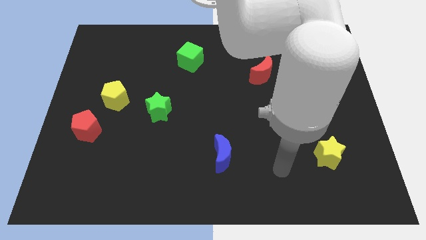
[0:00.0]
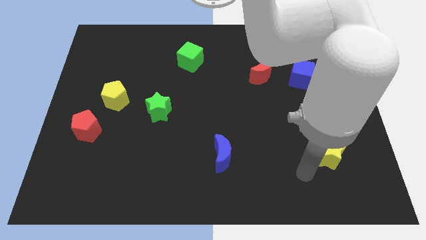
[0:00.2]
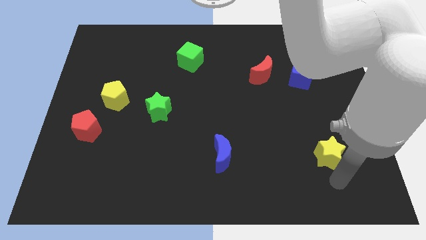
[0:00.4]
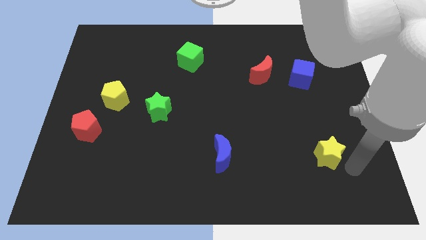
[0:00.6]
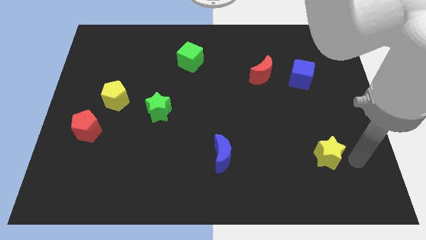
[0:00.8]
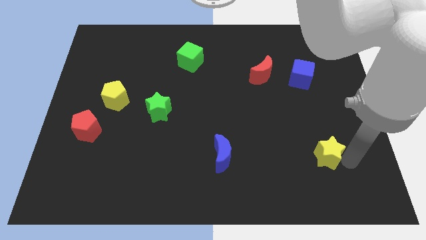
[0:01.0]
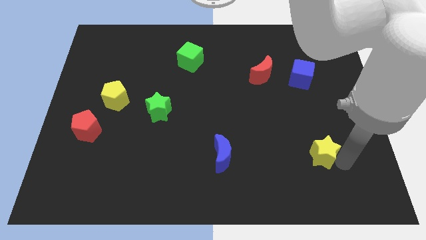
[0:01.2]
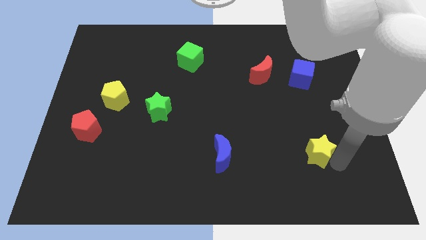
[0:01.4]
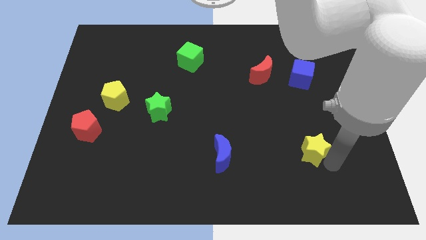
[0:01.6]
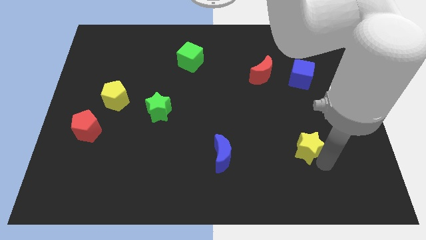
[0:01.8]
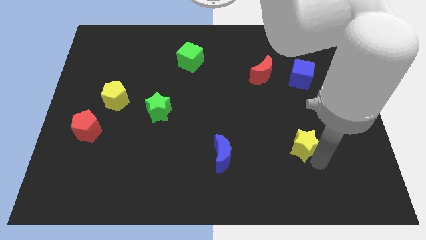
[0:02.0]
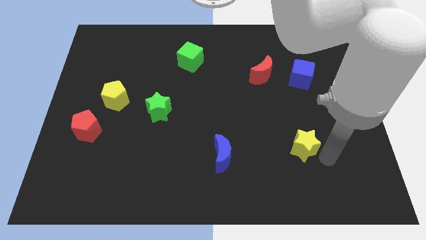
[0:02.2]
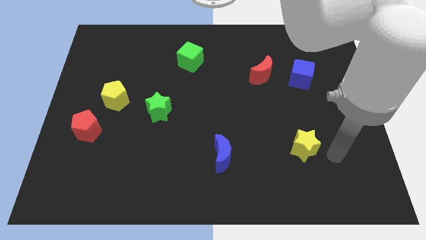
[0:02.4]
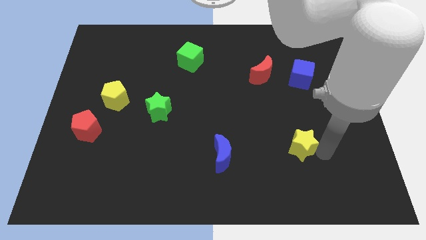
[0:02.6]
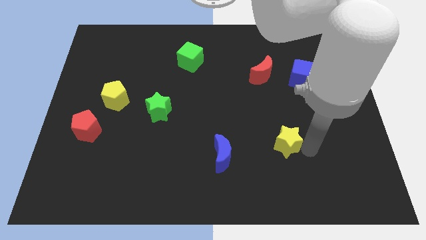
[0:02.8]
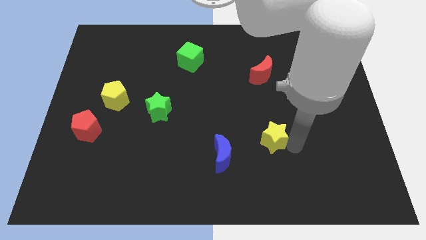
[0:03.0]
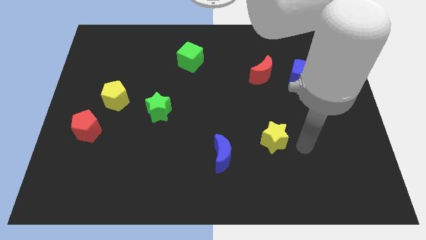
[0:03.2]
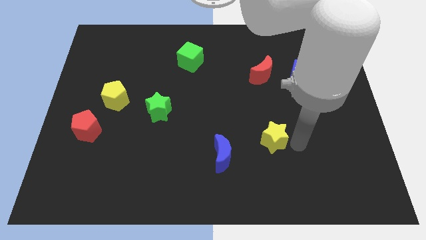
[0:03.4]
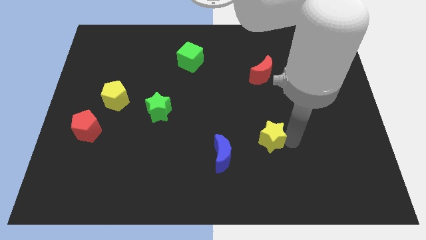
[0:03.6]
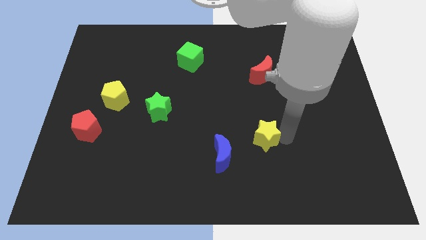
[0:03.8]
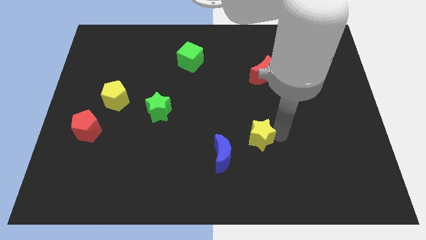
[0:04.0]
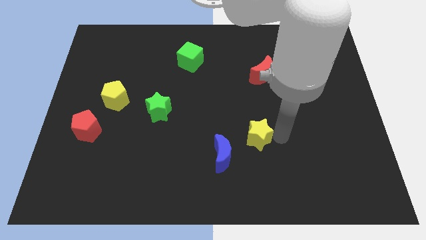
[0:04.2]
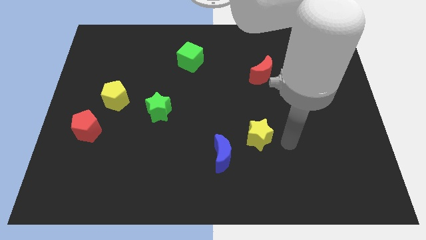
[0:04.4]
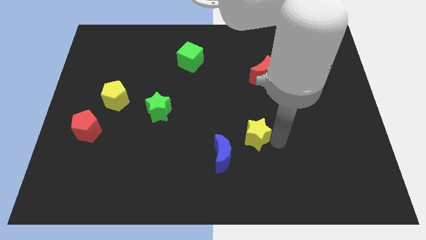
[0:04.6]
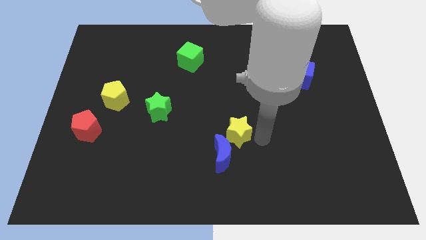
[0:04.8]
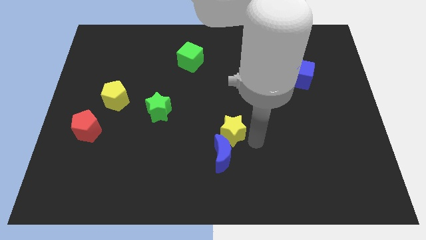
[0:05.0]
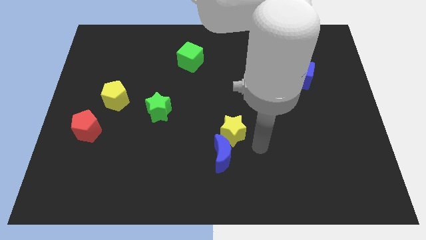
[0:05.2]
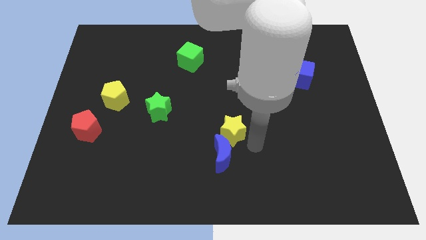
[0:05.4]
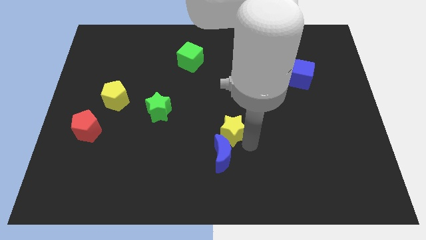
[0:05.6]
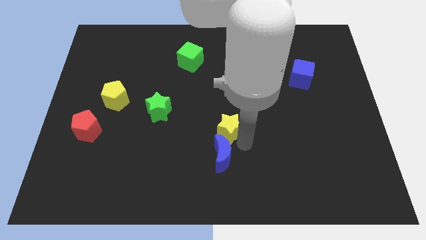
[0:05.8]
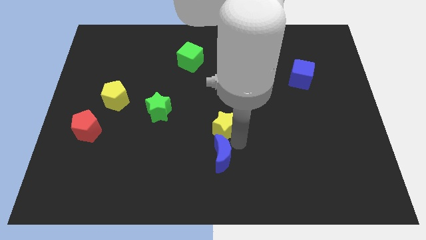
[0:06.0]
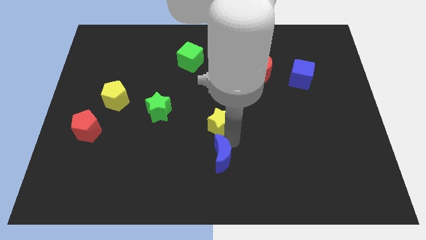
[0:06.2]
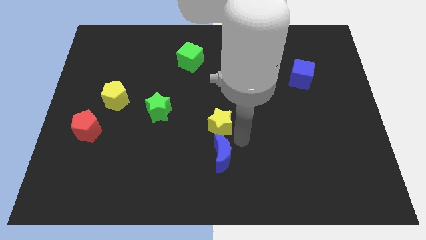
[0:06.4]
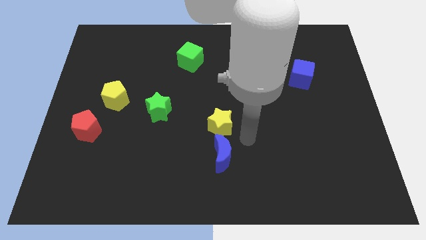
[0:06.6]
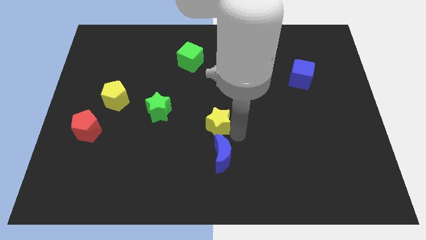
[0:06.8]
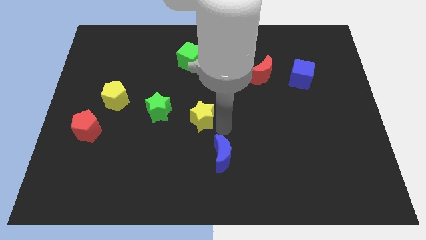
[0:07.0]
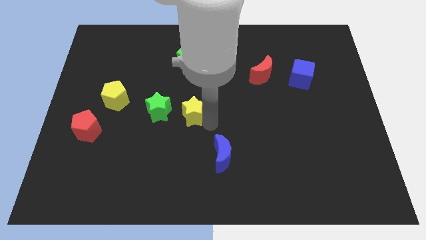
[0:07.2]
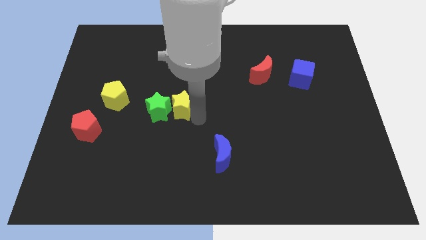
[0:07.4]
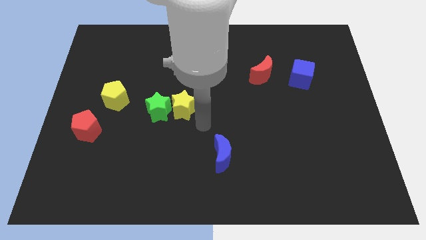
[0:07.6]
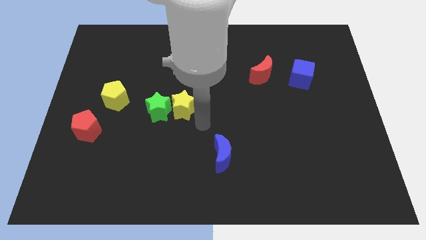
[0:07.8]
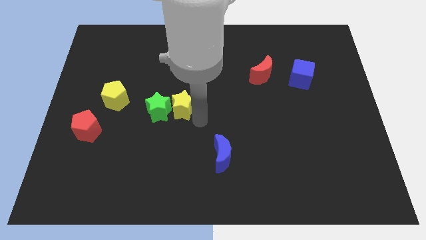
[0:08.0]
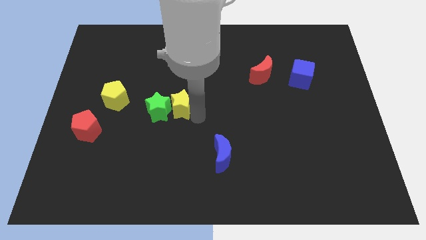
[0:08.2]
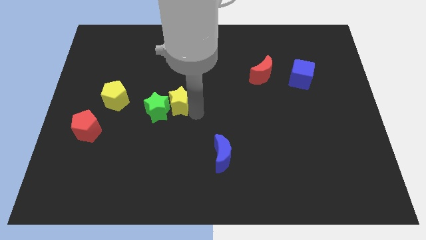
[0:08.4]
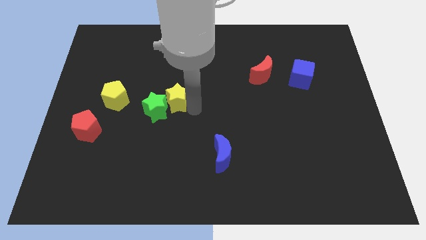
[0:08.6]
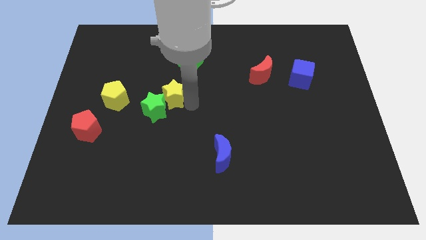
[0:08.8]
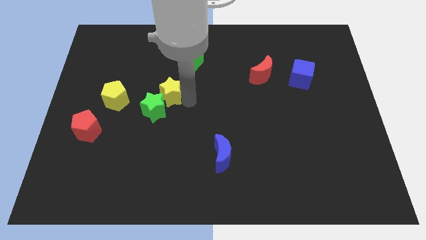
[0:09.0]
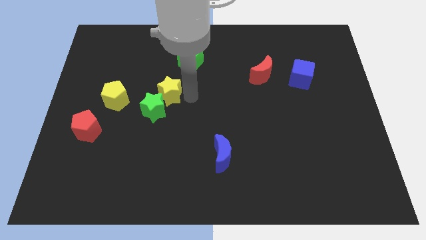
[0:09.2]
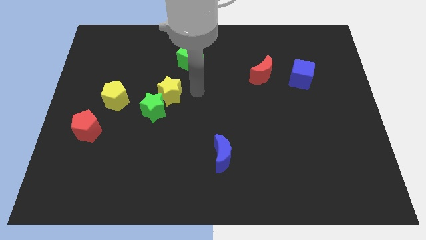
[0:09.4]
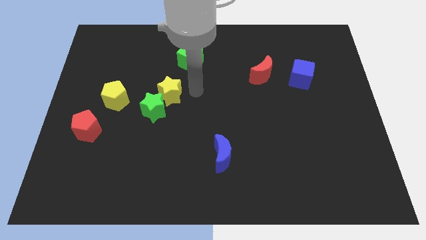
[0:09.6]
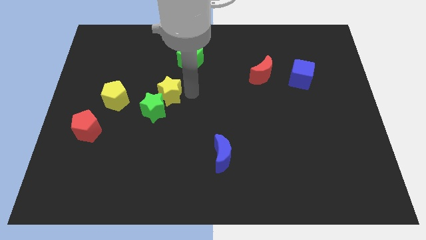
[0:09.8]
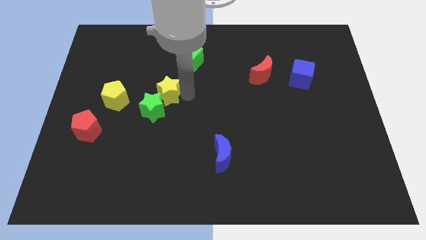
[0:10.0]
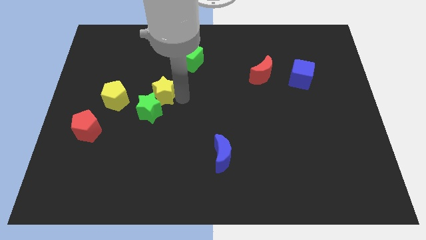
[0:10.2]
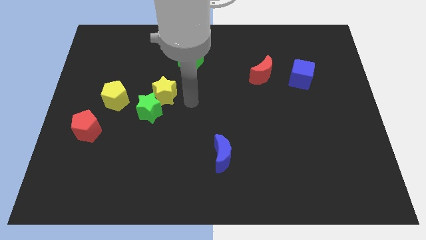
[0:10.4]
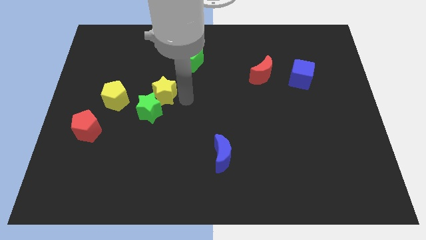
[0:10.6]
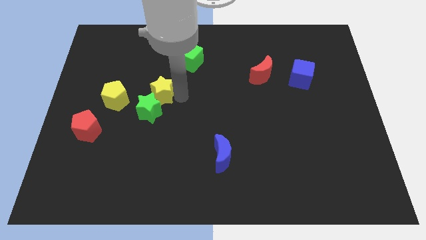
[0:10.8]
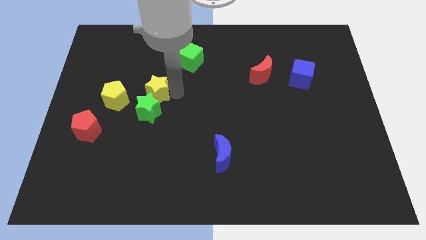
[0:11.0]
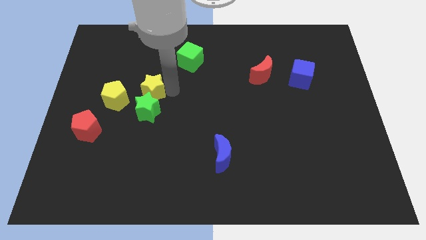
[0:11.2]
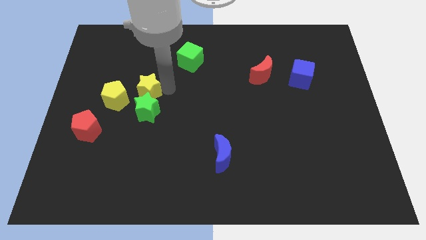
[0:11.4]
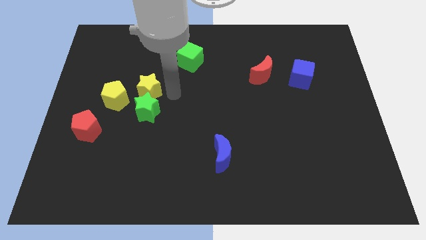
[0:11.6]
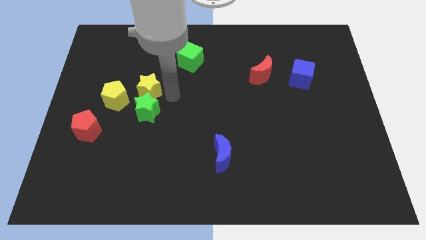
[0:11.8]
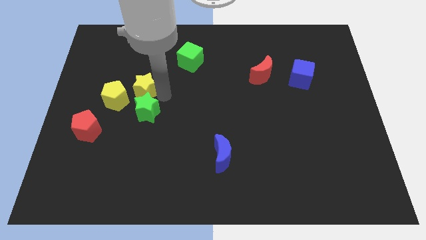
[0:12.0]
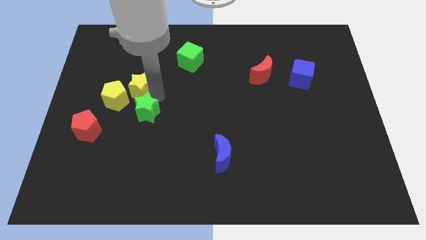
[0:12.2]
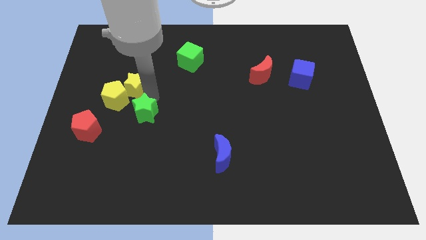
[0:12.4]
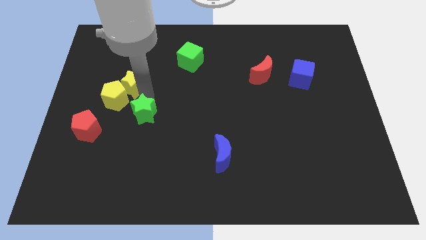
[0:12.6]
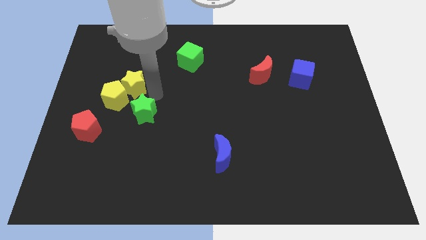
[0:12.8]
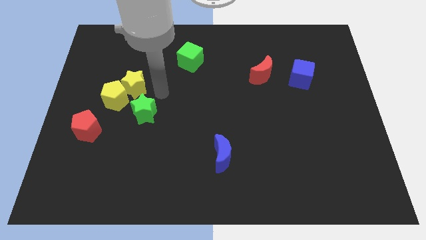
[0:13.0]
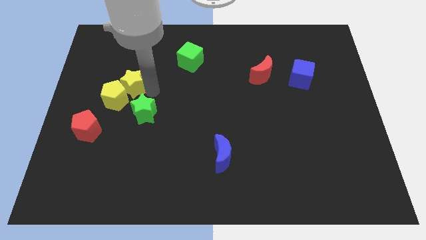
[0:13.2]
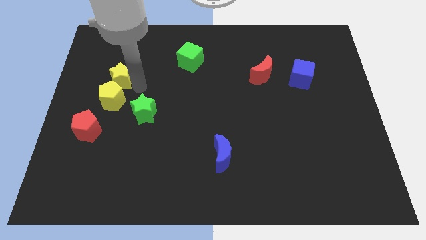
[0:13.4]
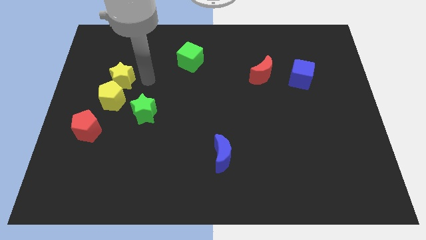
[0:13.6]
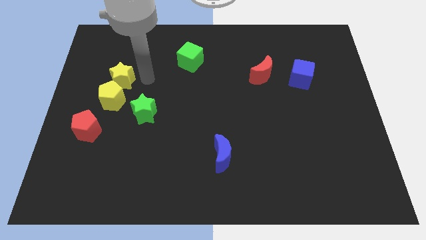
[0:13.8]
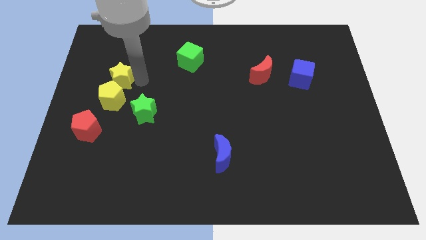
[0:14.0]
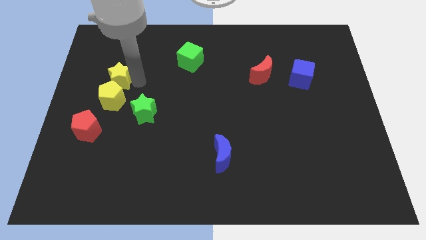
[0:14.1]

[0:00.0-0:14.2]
push the yellow star diagonally up and to the left of the yellow pentagon
